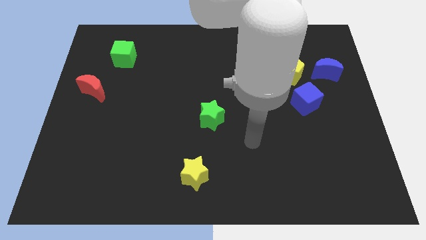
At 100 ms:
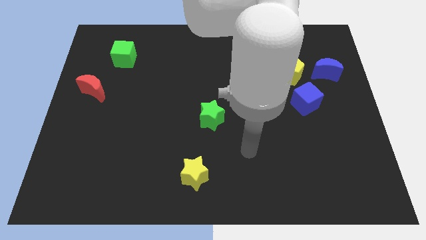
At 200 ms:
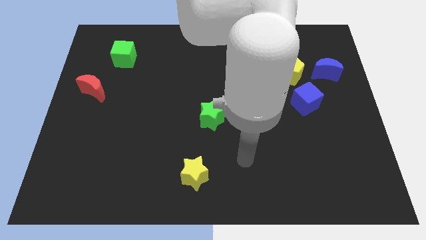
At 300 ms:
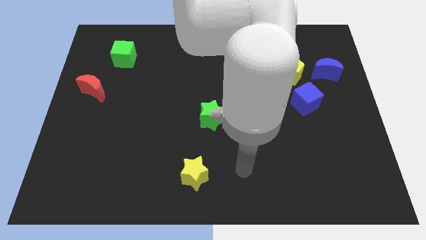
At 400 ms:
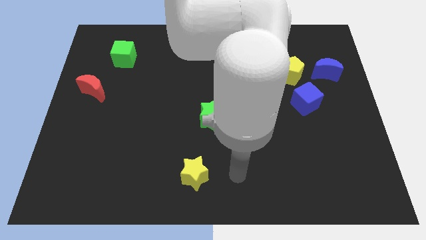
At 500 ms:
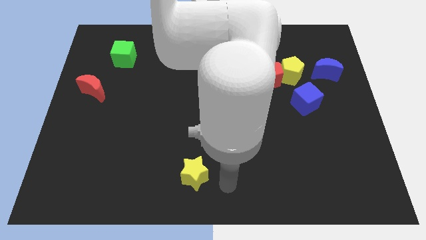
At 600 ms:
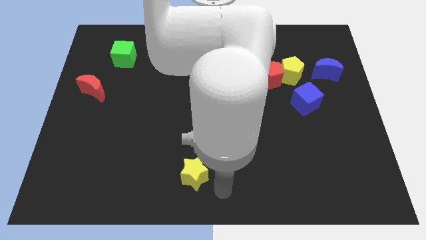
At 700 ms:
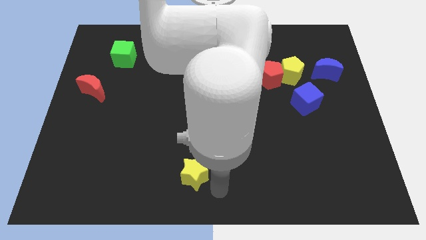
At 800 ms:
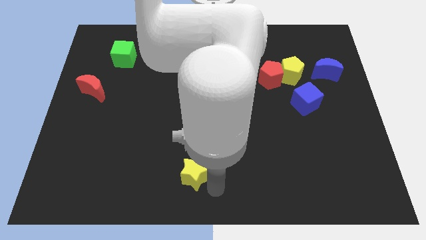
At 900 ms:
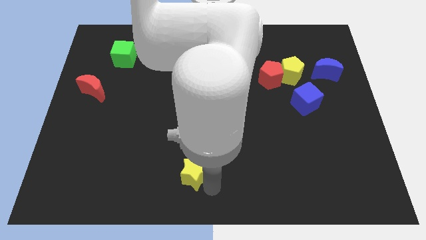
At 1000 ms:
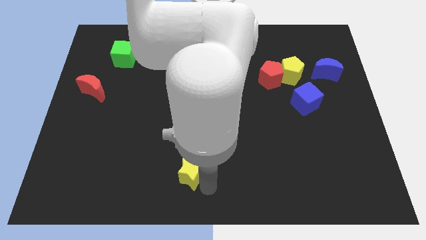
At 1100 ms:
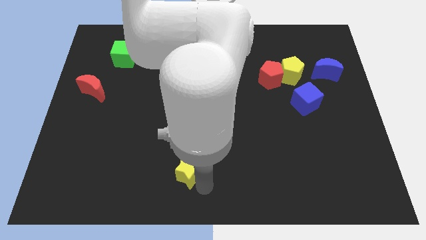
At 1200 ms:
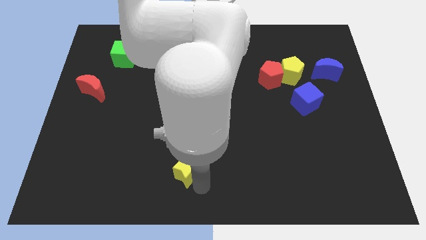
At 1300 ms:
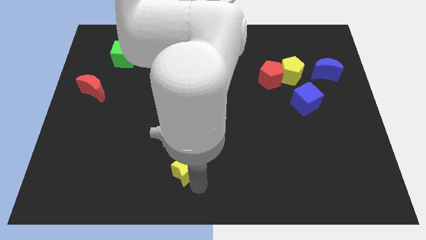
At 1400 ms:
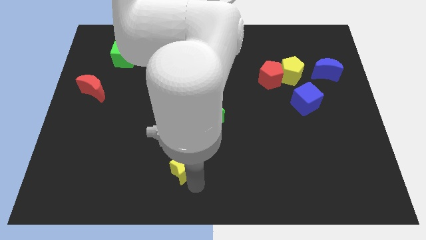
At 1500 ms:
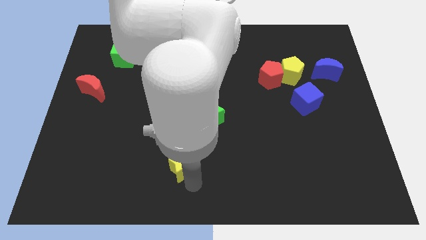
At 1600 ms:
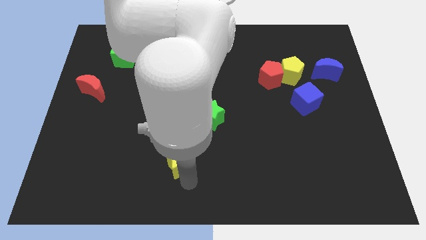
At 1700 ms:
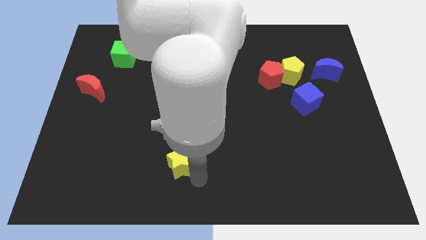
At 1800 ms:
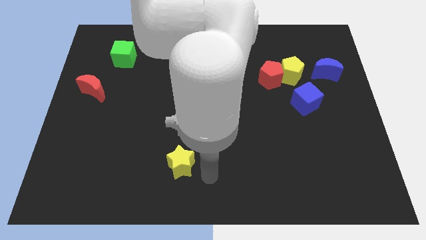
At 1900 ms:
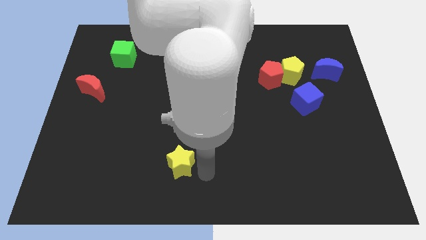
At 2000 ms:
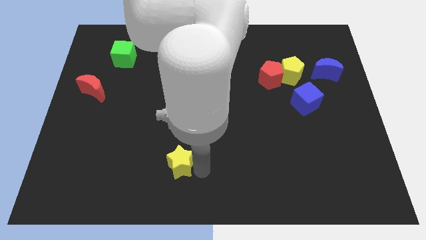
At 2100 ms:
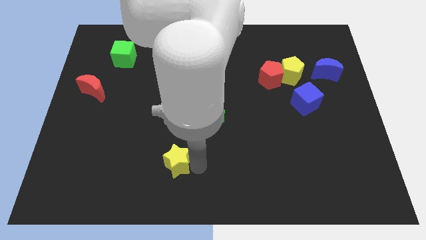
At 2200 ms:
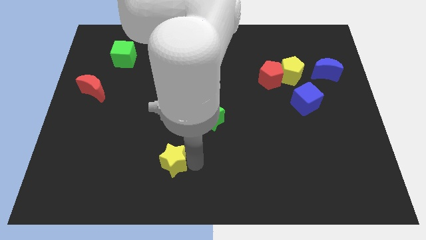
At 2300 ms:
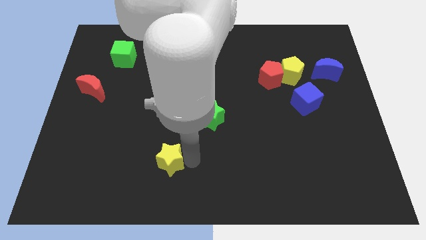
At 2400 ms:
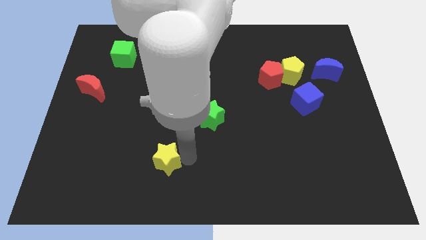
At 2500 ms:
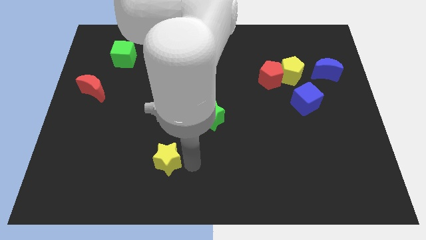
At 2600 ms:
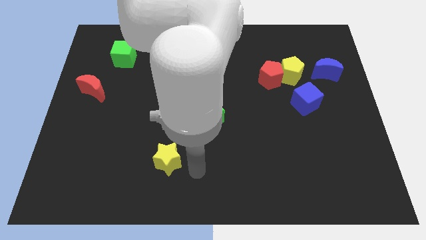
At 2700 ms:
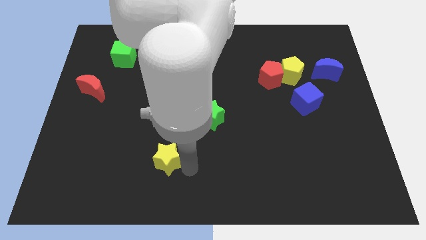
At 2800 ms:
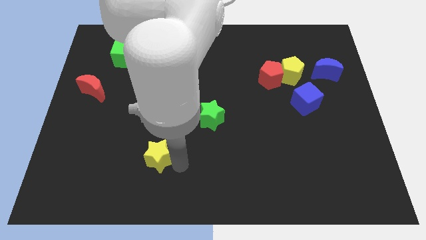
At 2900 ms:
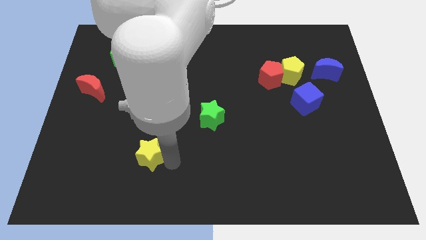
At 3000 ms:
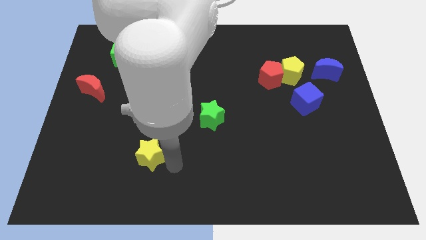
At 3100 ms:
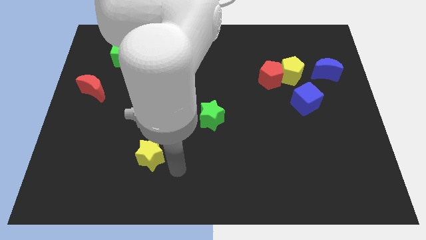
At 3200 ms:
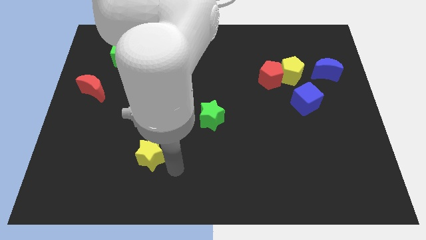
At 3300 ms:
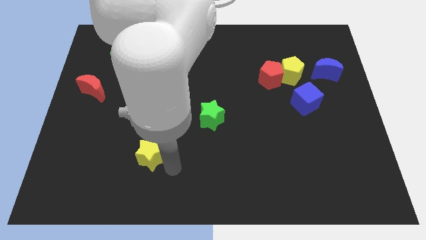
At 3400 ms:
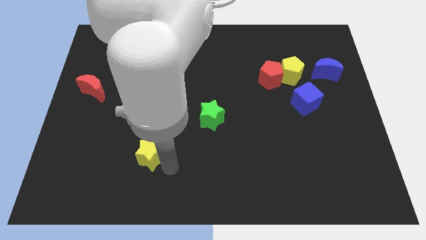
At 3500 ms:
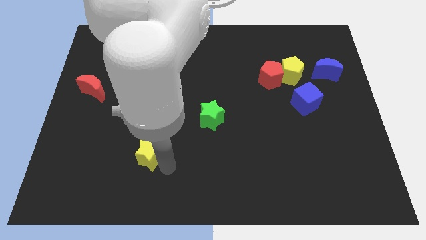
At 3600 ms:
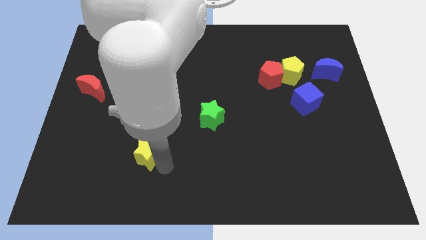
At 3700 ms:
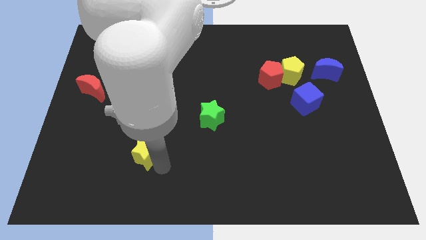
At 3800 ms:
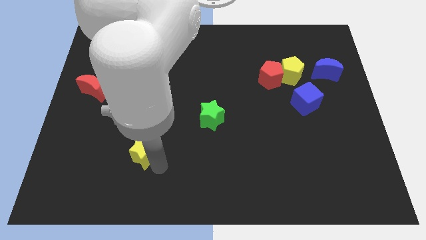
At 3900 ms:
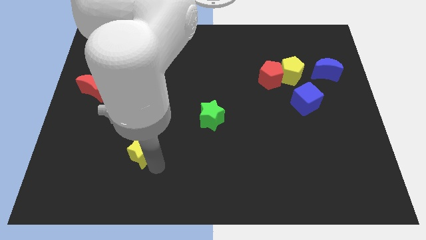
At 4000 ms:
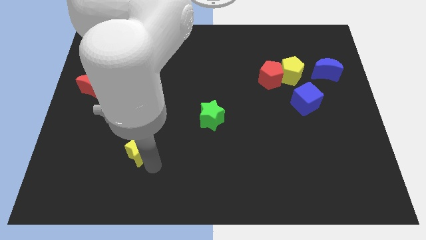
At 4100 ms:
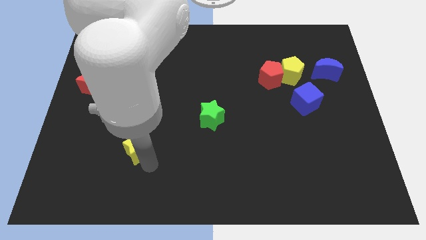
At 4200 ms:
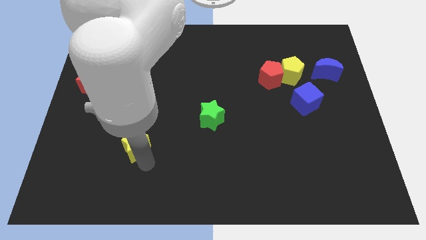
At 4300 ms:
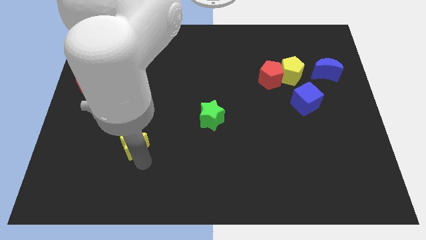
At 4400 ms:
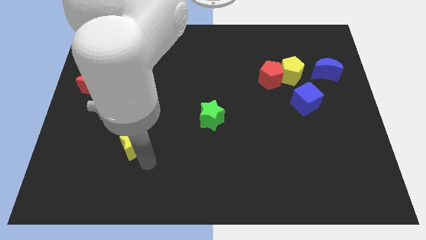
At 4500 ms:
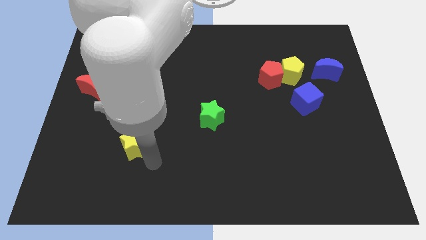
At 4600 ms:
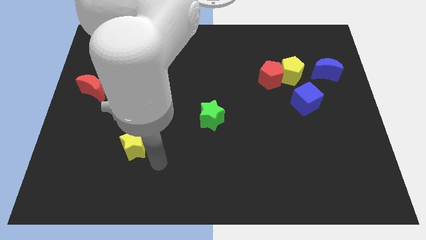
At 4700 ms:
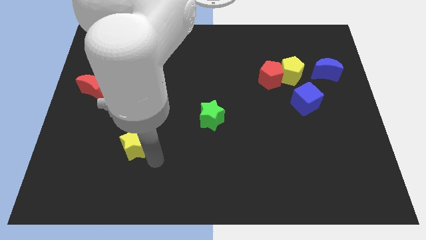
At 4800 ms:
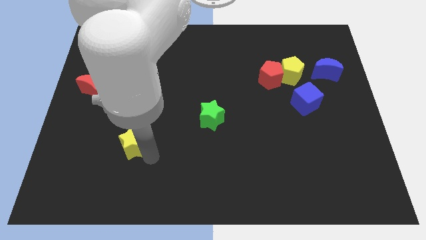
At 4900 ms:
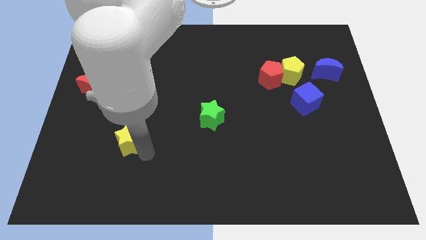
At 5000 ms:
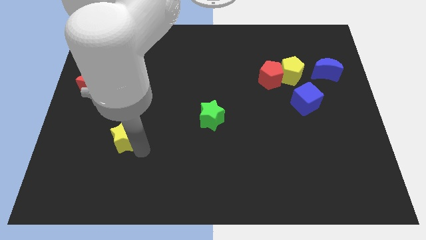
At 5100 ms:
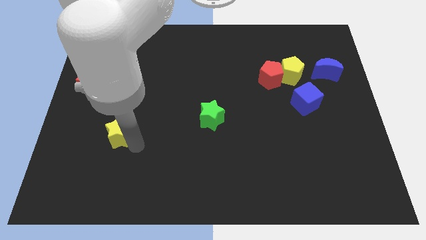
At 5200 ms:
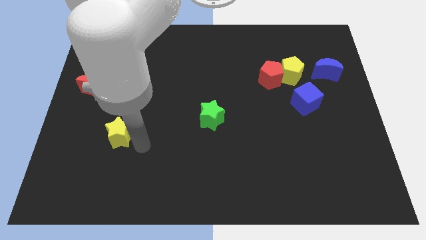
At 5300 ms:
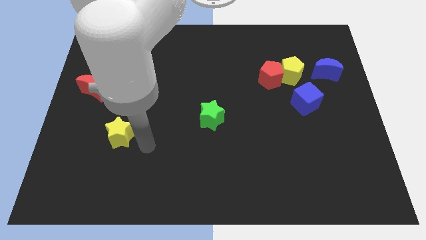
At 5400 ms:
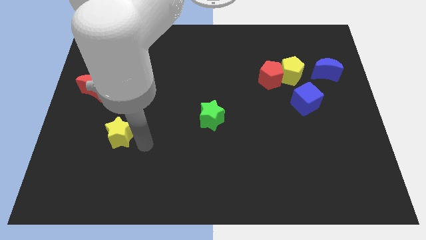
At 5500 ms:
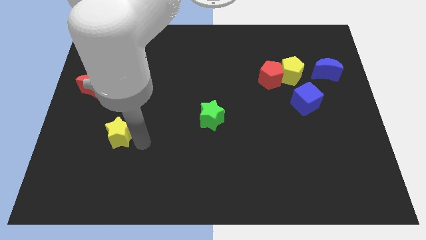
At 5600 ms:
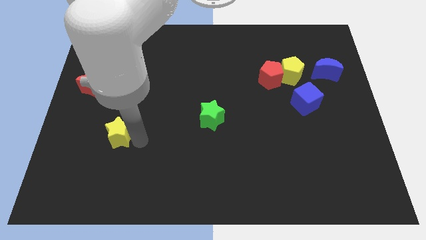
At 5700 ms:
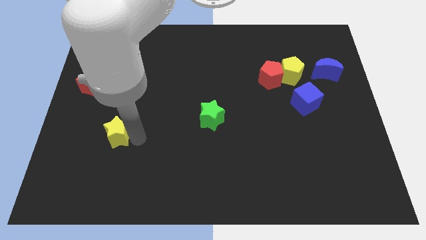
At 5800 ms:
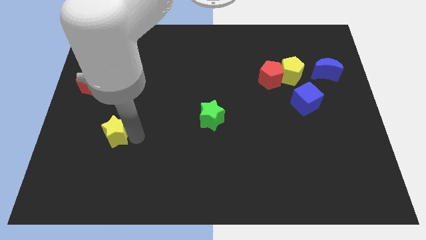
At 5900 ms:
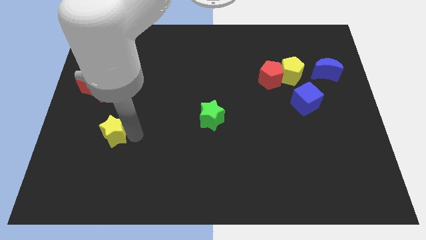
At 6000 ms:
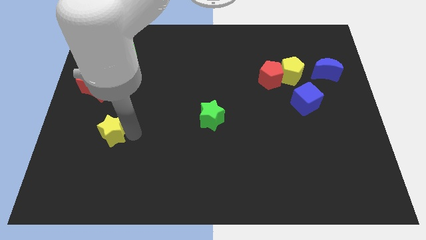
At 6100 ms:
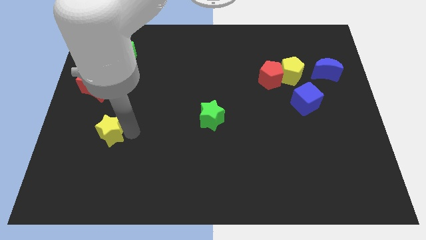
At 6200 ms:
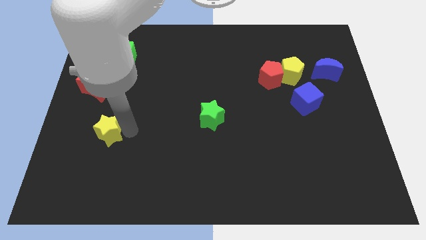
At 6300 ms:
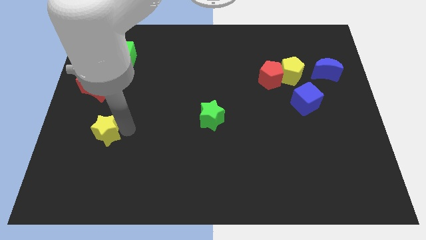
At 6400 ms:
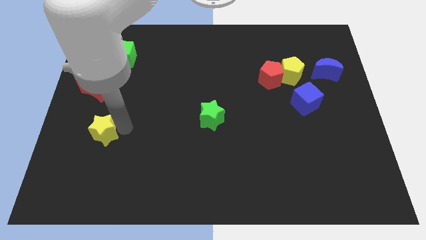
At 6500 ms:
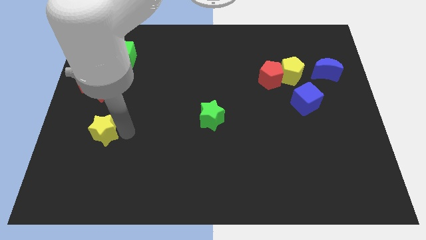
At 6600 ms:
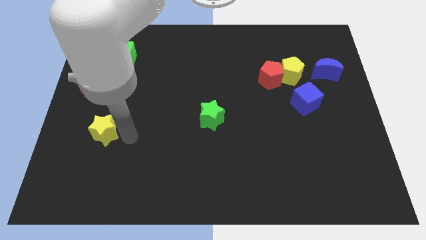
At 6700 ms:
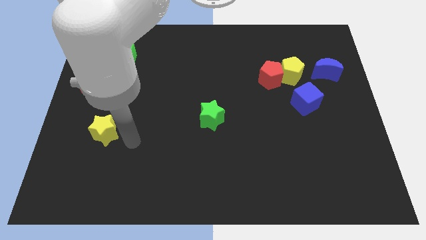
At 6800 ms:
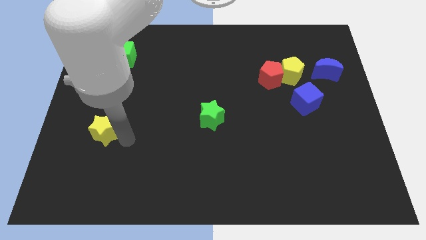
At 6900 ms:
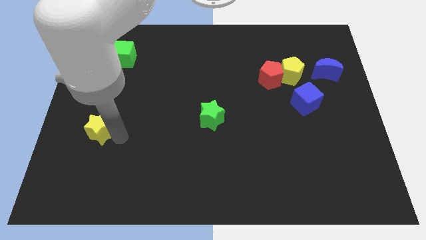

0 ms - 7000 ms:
put the yellow star below the red moon

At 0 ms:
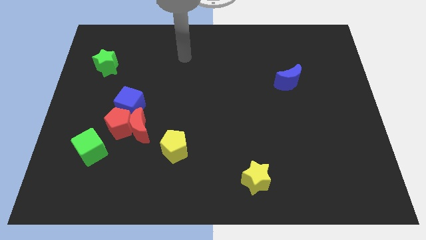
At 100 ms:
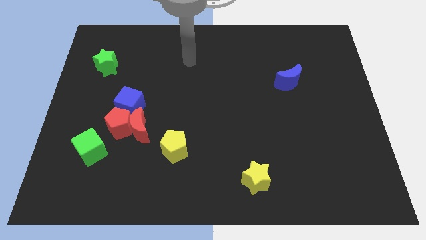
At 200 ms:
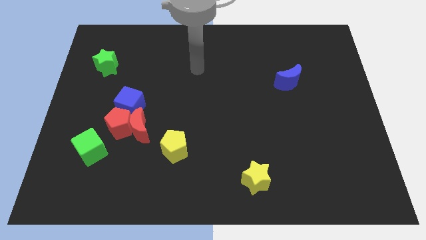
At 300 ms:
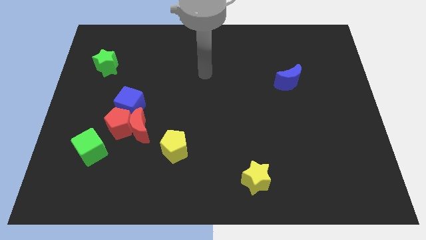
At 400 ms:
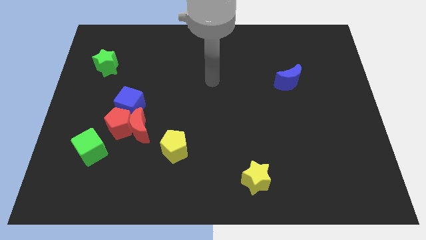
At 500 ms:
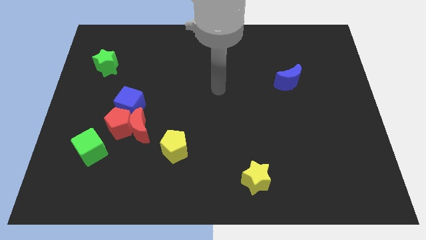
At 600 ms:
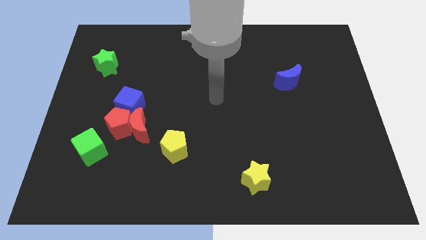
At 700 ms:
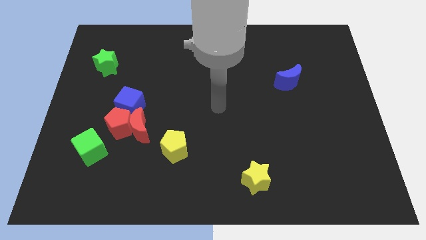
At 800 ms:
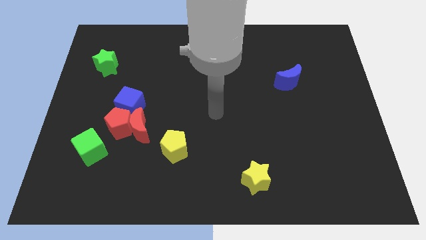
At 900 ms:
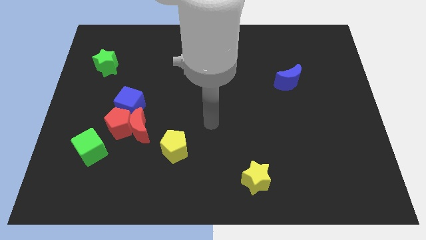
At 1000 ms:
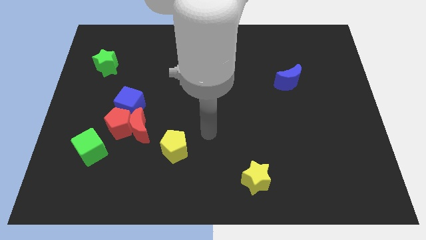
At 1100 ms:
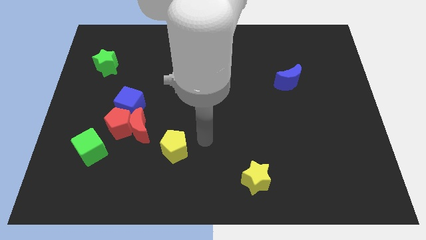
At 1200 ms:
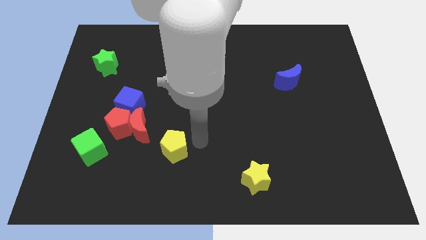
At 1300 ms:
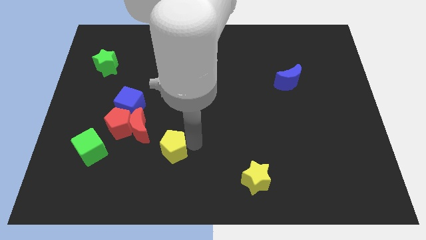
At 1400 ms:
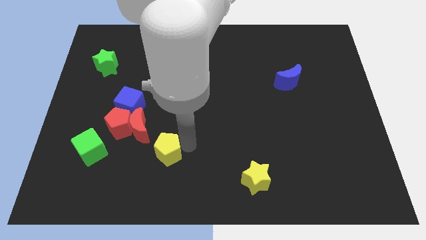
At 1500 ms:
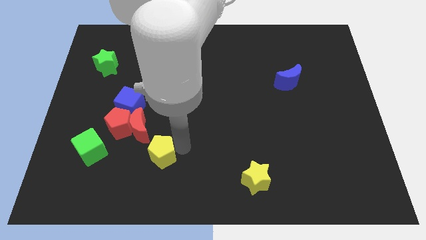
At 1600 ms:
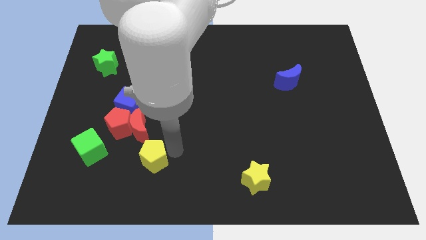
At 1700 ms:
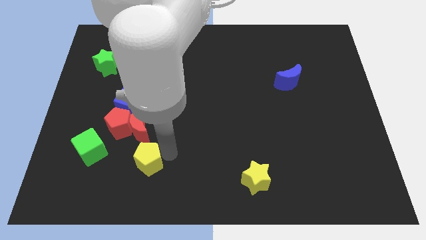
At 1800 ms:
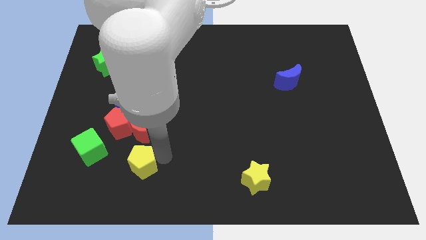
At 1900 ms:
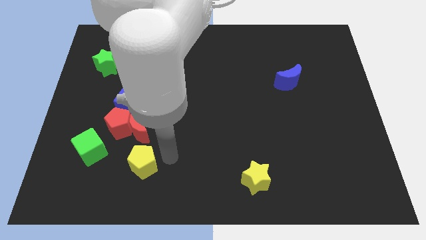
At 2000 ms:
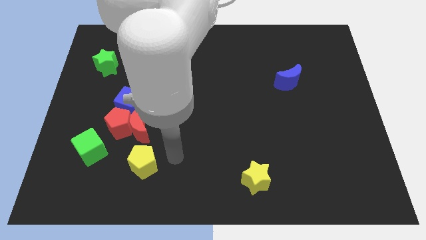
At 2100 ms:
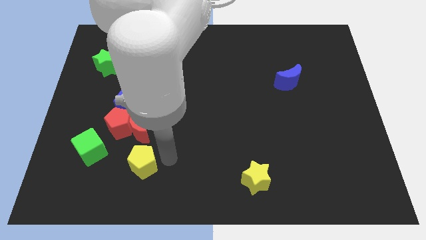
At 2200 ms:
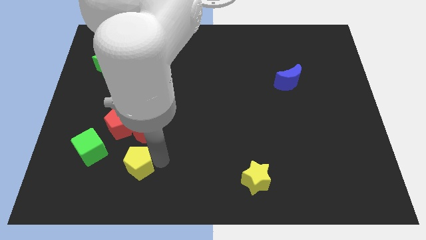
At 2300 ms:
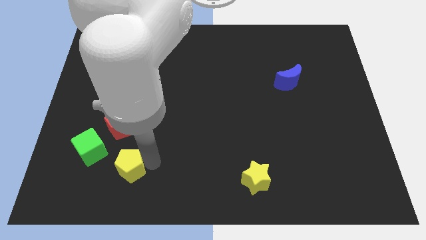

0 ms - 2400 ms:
move the yellow pentagon to the bottom right of the green cube
